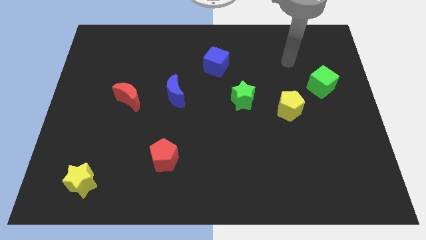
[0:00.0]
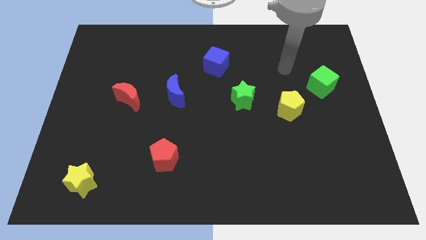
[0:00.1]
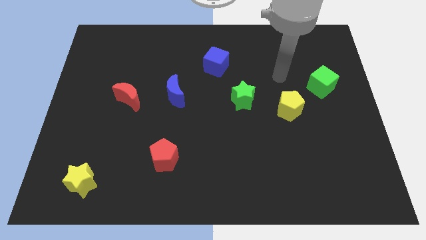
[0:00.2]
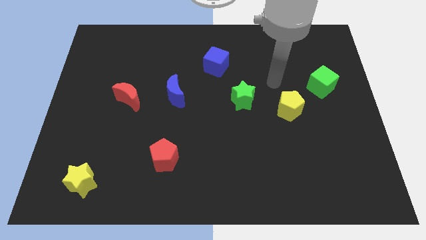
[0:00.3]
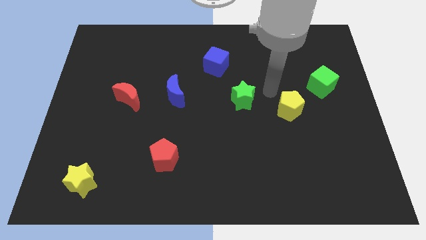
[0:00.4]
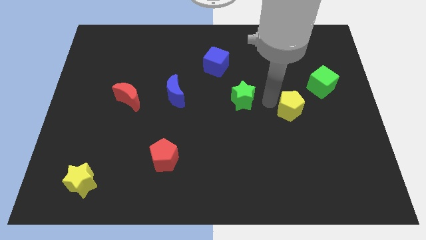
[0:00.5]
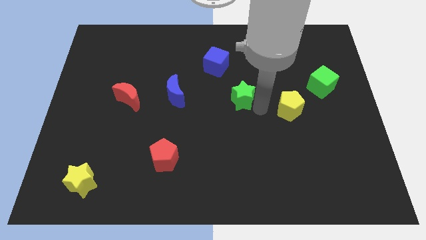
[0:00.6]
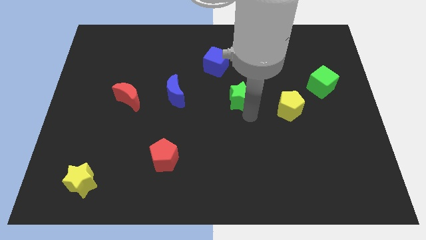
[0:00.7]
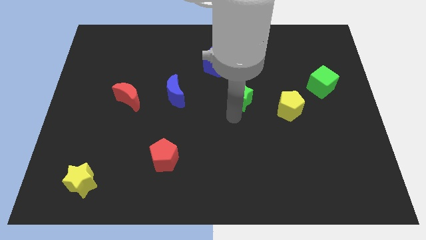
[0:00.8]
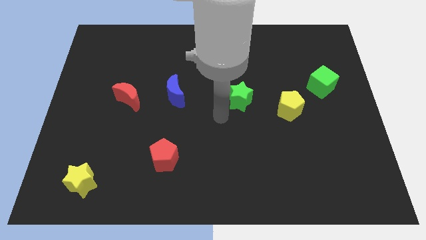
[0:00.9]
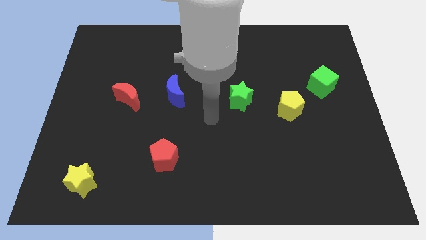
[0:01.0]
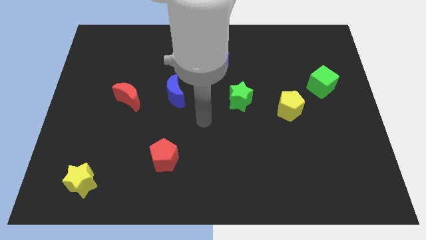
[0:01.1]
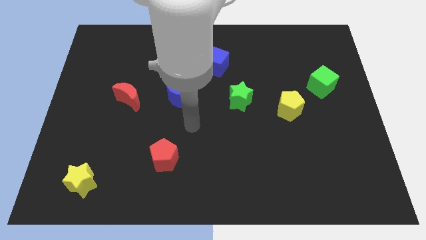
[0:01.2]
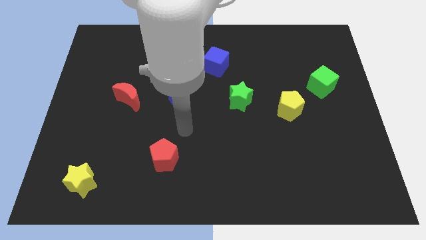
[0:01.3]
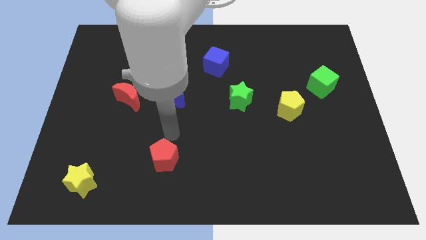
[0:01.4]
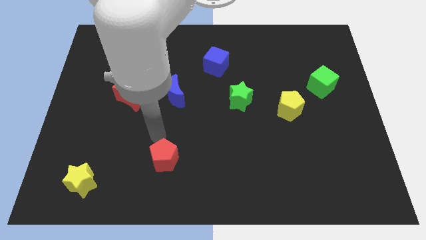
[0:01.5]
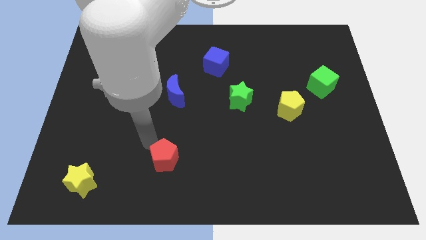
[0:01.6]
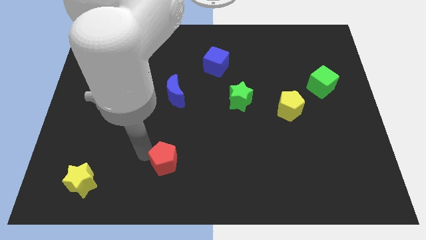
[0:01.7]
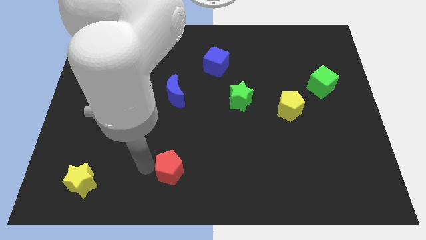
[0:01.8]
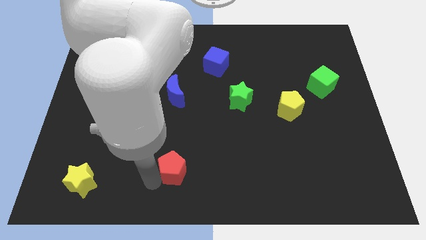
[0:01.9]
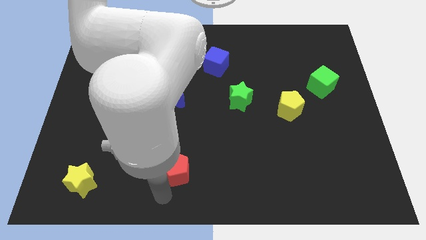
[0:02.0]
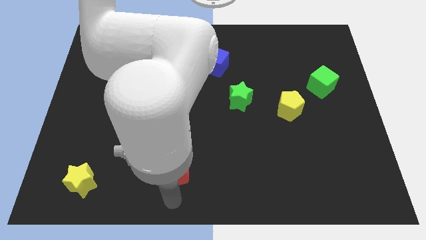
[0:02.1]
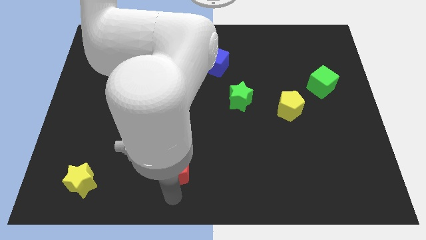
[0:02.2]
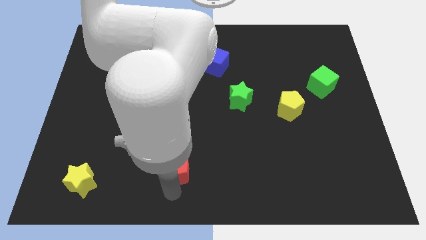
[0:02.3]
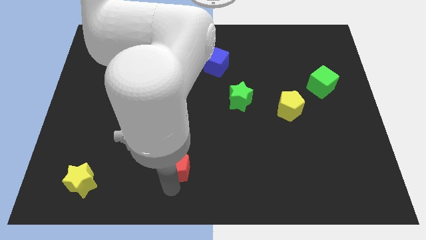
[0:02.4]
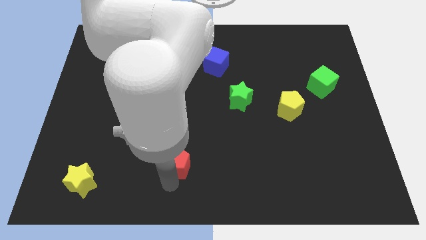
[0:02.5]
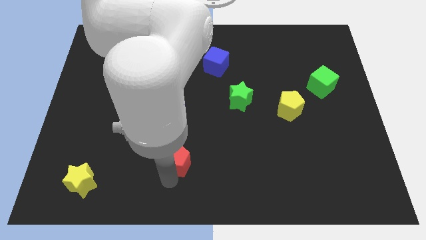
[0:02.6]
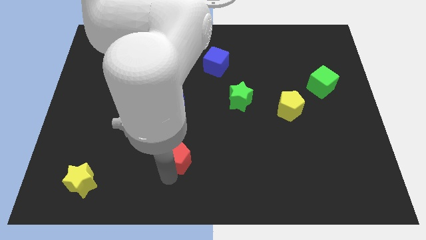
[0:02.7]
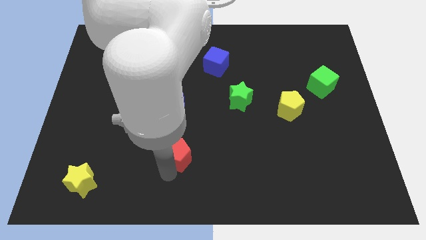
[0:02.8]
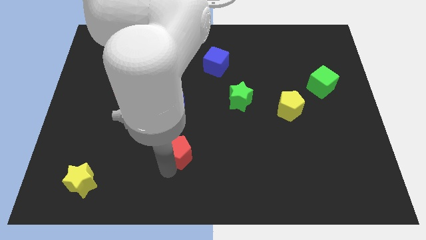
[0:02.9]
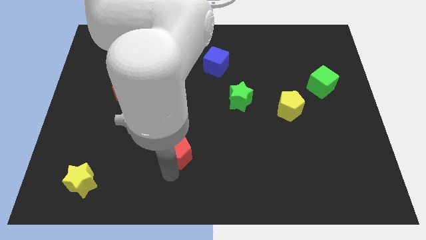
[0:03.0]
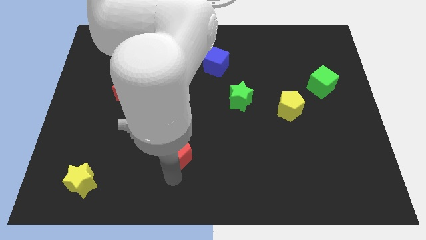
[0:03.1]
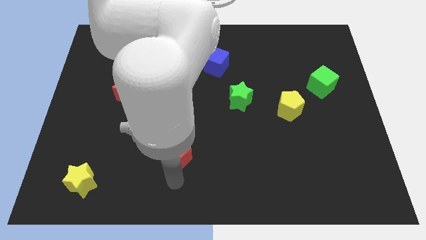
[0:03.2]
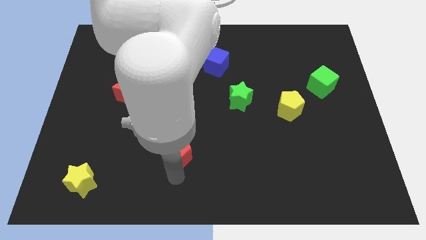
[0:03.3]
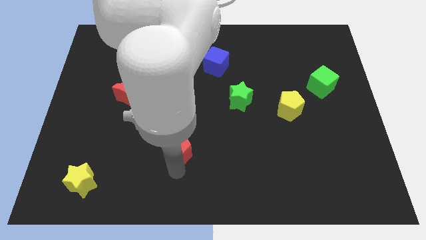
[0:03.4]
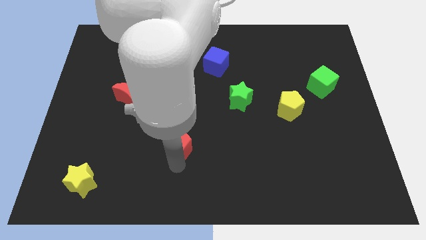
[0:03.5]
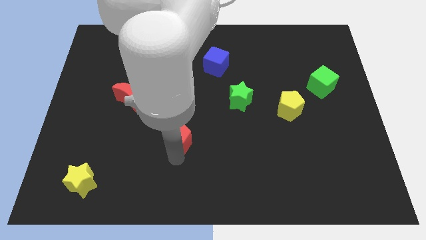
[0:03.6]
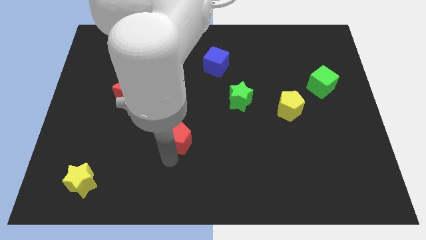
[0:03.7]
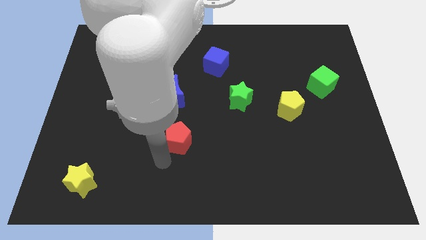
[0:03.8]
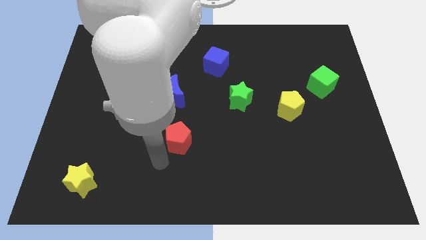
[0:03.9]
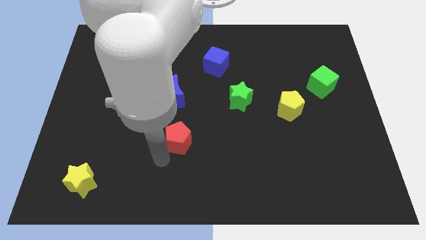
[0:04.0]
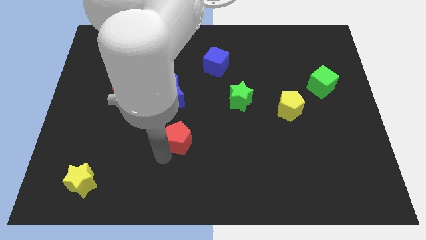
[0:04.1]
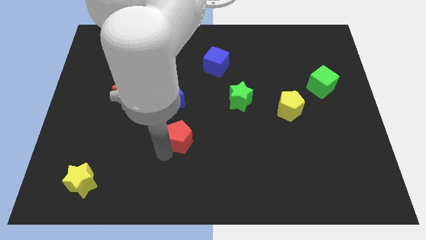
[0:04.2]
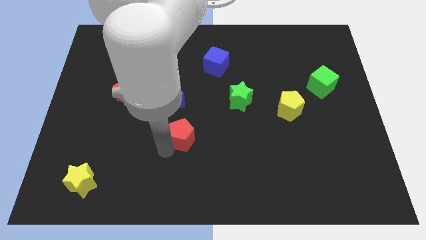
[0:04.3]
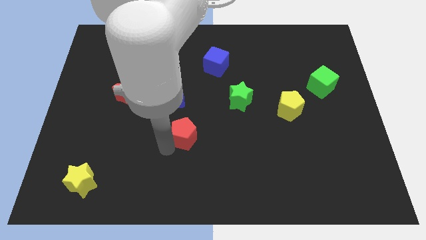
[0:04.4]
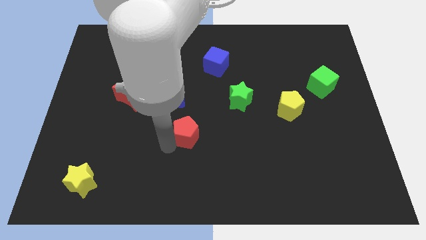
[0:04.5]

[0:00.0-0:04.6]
push the red pentagon upwards and right diagonally somewhat

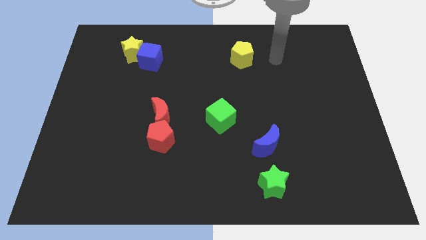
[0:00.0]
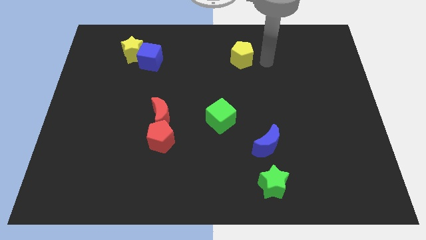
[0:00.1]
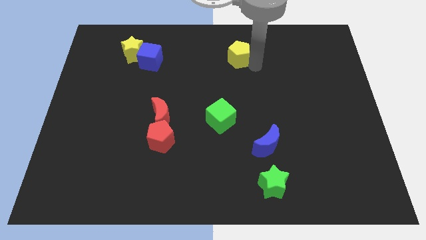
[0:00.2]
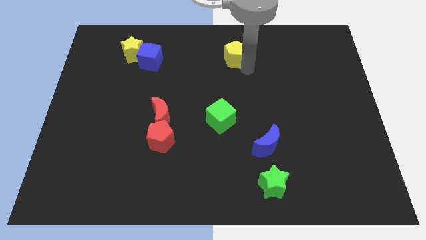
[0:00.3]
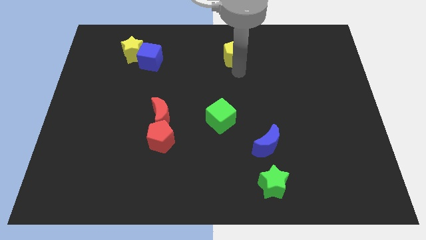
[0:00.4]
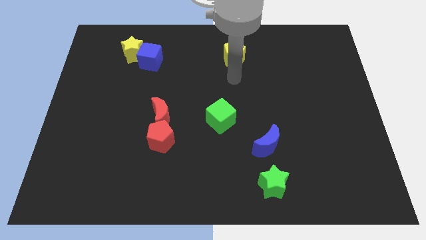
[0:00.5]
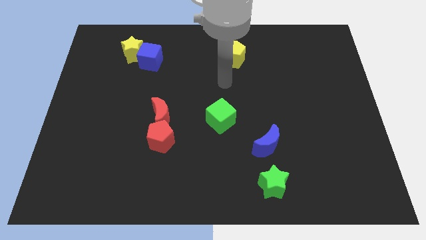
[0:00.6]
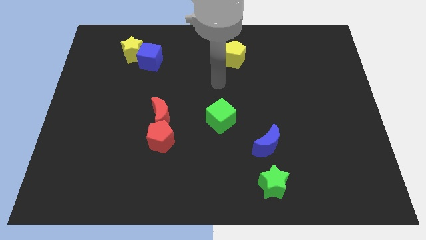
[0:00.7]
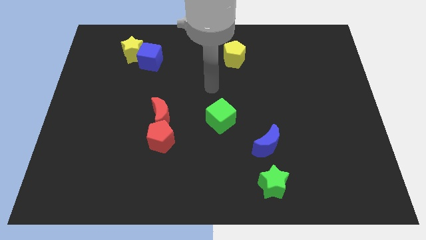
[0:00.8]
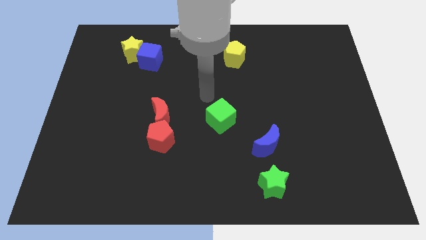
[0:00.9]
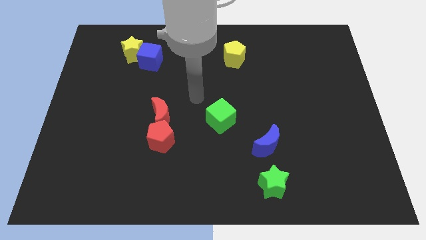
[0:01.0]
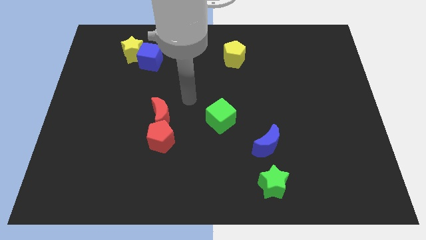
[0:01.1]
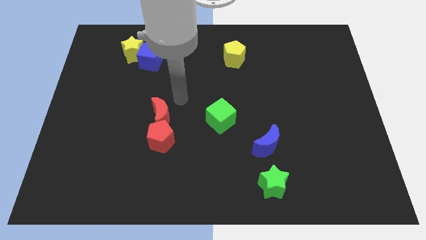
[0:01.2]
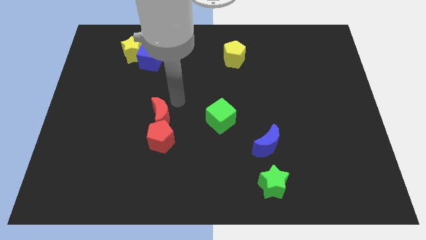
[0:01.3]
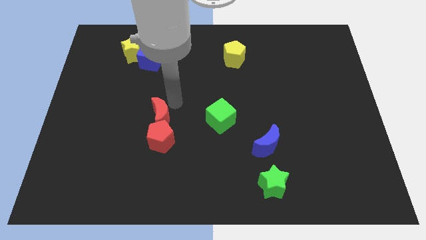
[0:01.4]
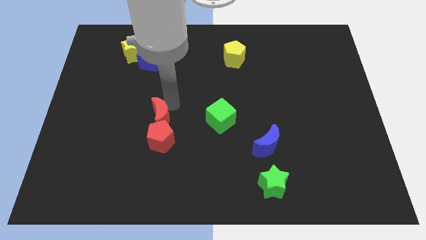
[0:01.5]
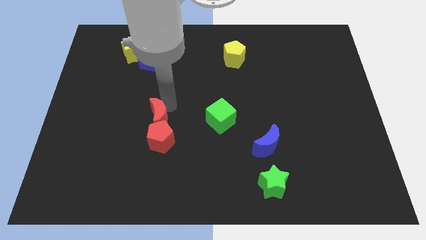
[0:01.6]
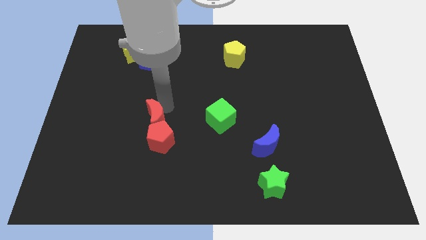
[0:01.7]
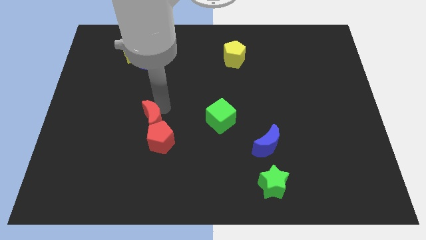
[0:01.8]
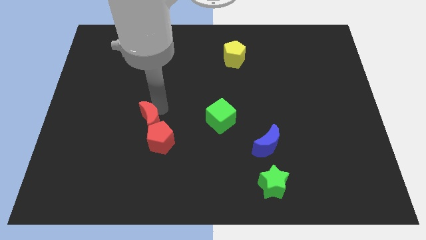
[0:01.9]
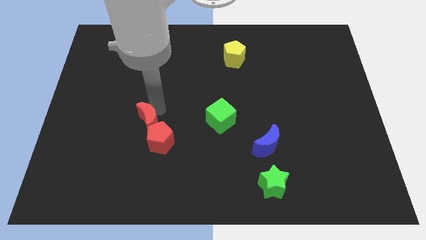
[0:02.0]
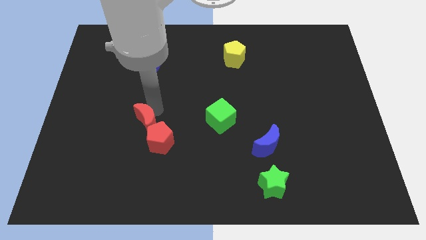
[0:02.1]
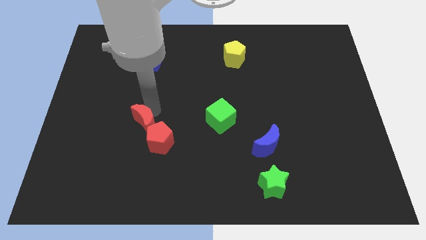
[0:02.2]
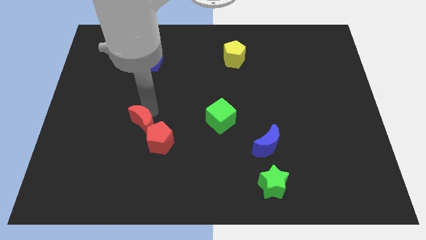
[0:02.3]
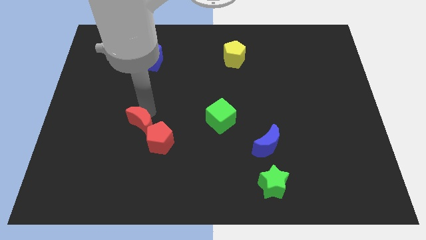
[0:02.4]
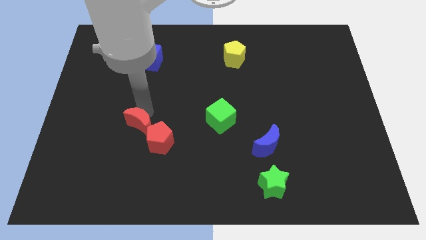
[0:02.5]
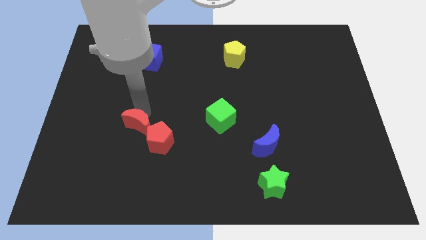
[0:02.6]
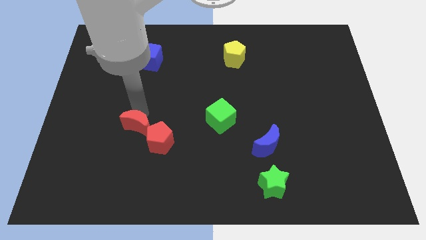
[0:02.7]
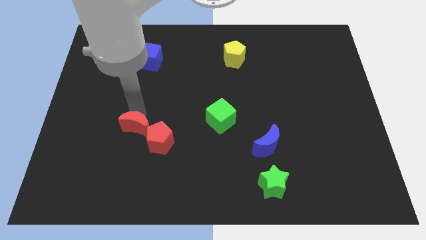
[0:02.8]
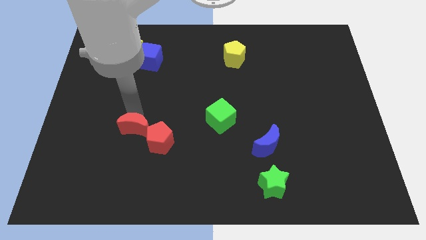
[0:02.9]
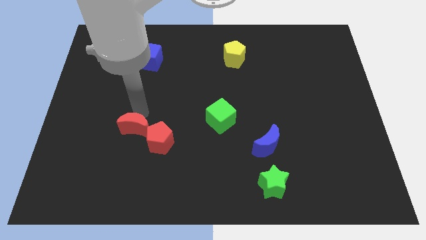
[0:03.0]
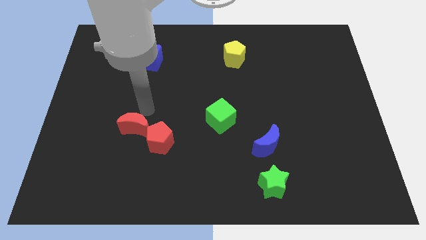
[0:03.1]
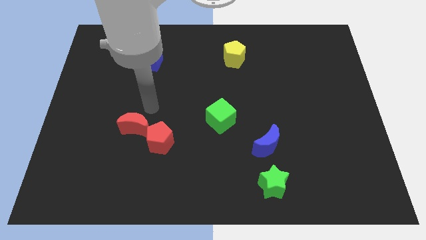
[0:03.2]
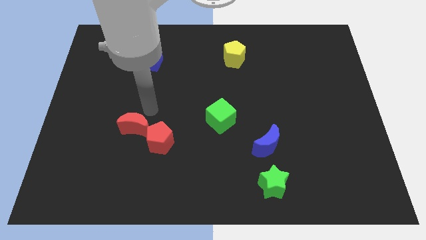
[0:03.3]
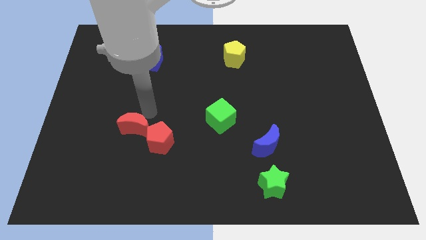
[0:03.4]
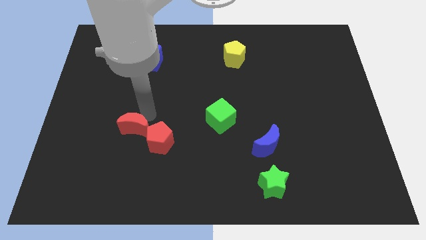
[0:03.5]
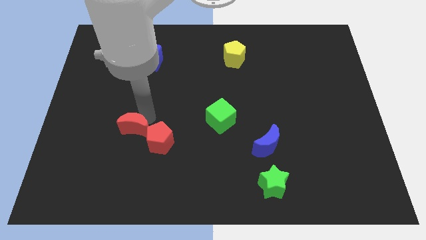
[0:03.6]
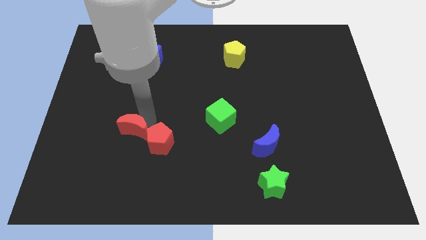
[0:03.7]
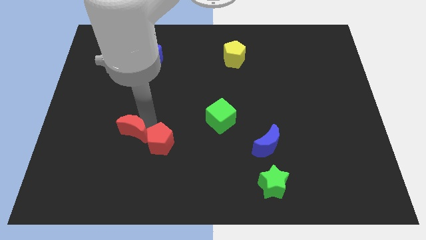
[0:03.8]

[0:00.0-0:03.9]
slightly push the red moon down and left
